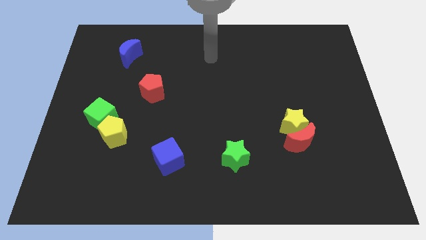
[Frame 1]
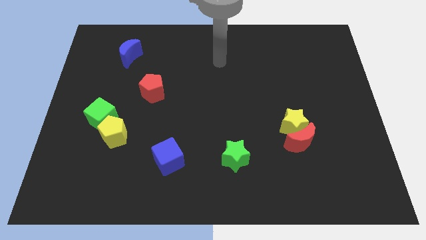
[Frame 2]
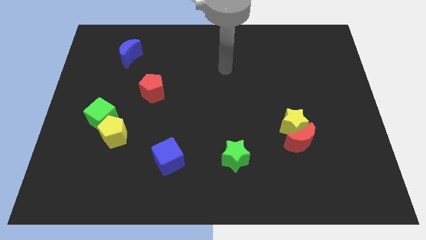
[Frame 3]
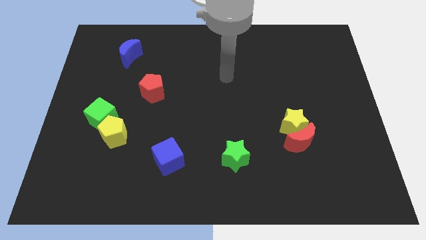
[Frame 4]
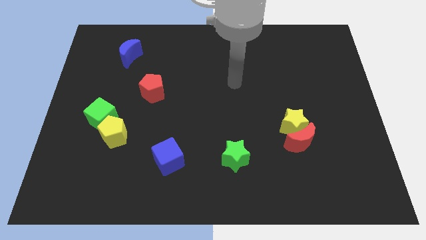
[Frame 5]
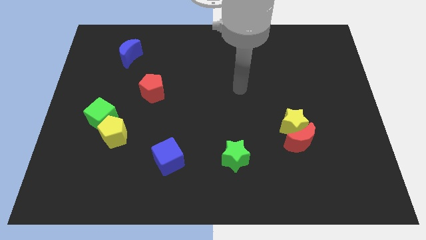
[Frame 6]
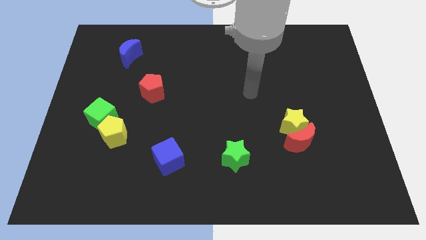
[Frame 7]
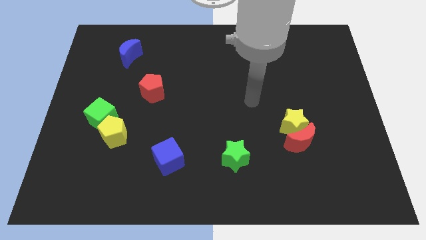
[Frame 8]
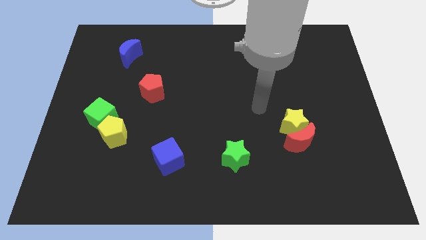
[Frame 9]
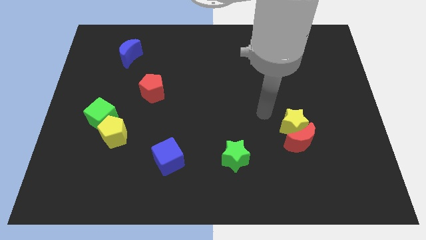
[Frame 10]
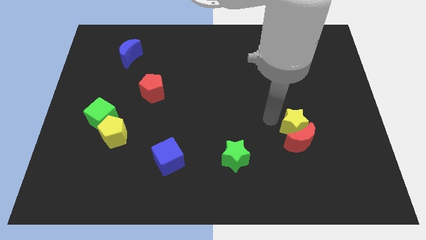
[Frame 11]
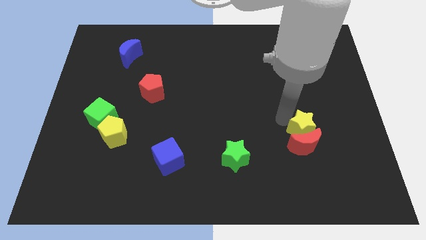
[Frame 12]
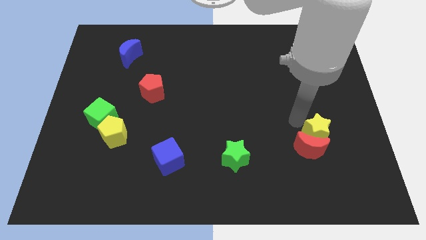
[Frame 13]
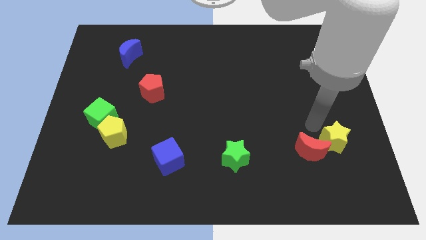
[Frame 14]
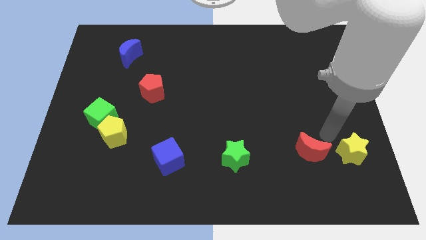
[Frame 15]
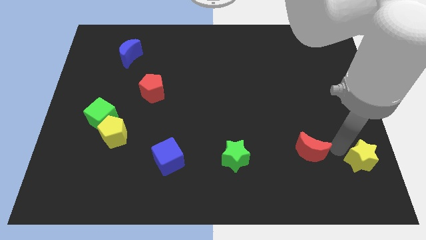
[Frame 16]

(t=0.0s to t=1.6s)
move the red moon away from the yellow star

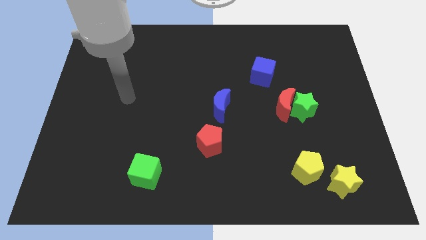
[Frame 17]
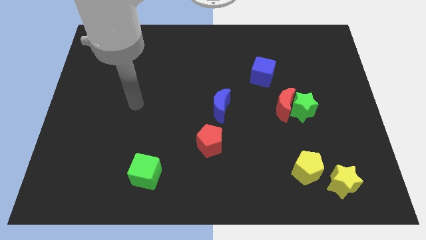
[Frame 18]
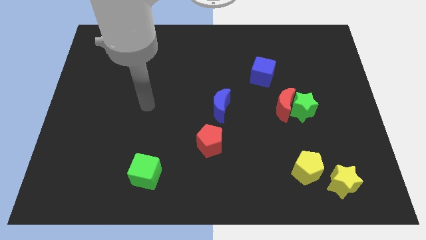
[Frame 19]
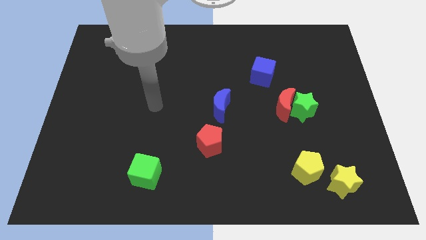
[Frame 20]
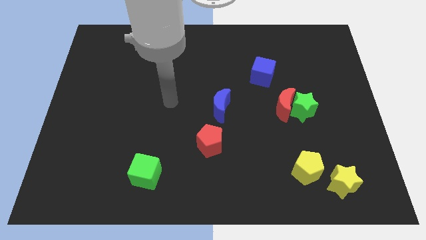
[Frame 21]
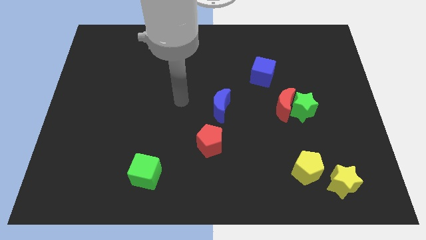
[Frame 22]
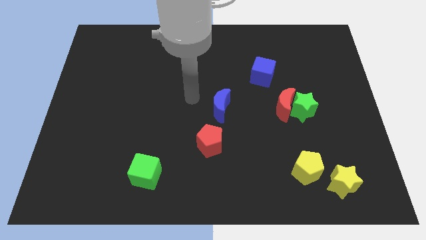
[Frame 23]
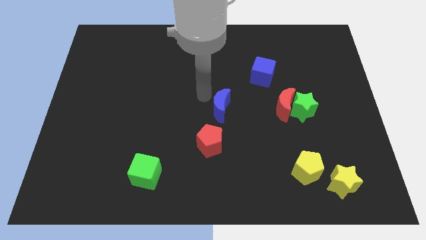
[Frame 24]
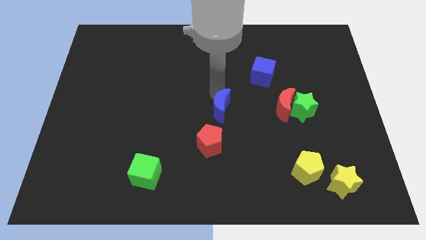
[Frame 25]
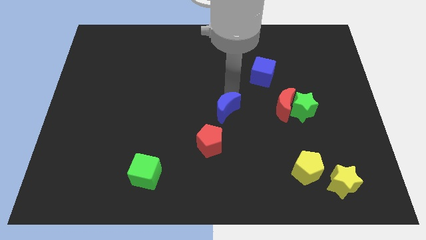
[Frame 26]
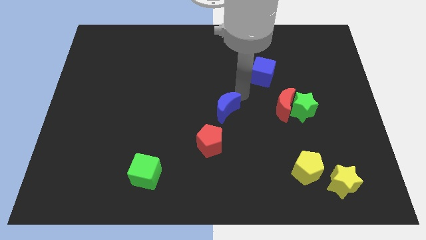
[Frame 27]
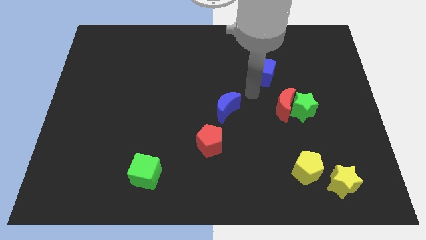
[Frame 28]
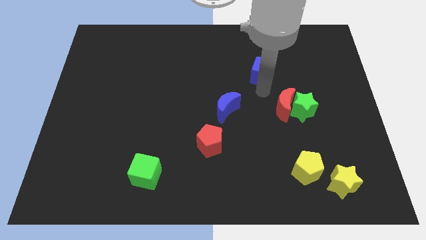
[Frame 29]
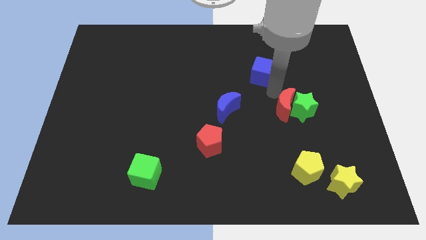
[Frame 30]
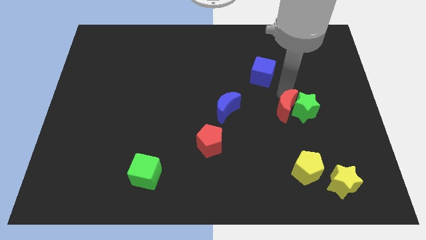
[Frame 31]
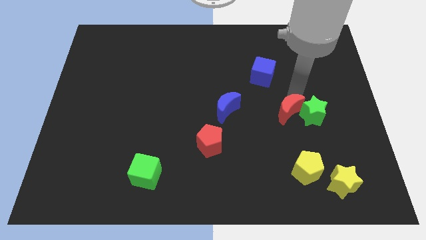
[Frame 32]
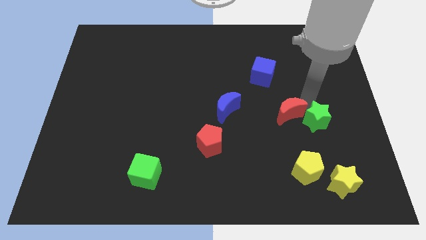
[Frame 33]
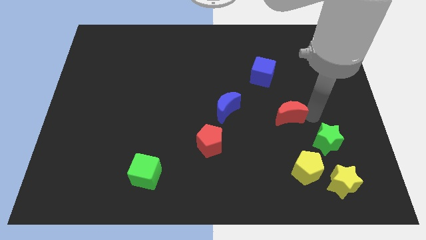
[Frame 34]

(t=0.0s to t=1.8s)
pull the red moon apart from the green star

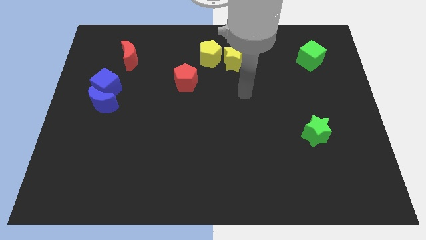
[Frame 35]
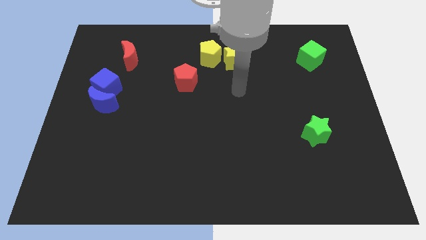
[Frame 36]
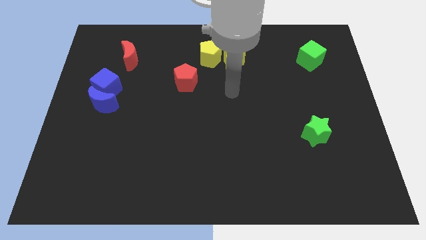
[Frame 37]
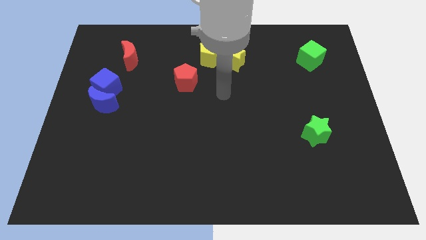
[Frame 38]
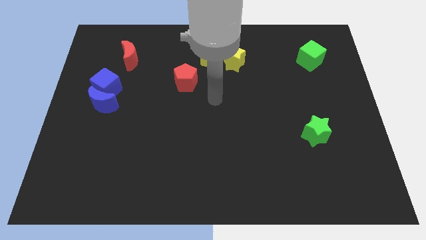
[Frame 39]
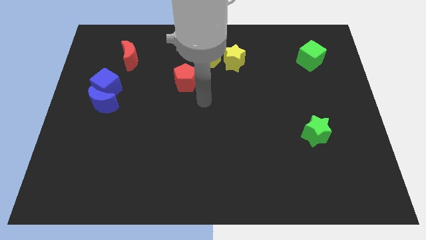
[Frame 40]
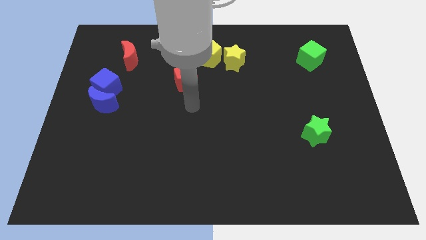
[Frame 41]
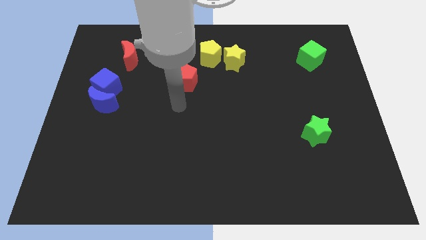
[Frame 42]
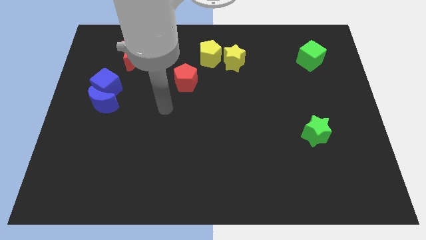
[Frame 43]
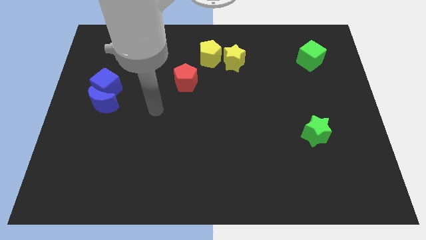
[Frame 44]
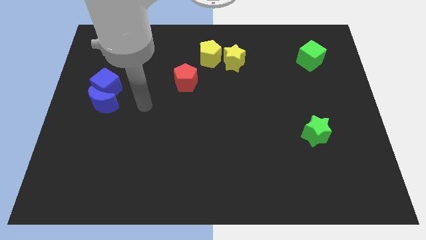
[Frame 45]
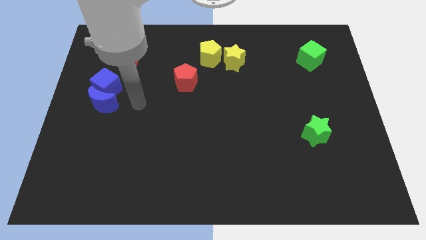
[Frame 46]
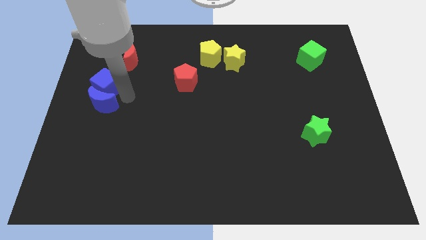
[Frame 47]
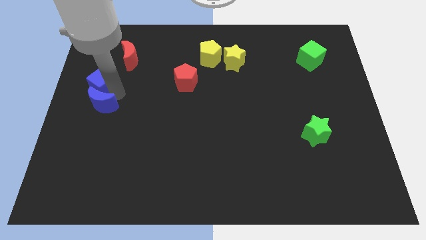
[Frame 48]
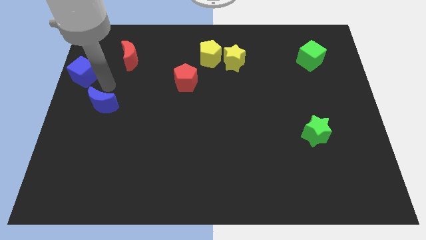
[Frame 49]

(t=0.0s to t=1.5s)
pull the blue moon apart from the blue cube

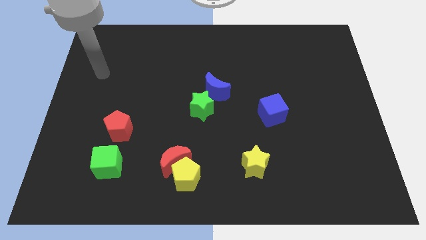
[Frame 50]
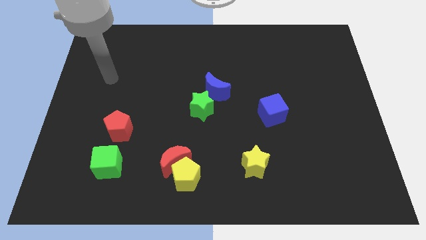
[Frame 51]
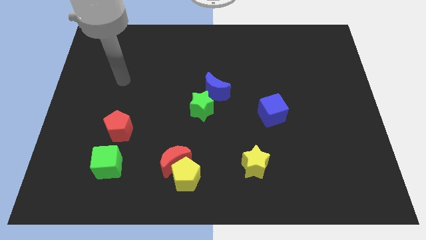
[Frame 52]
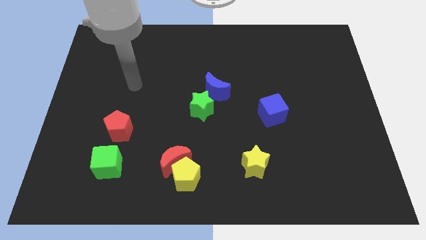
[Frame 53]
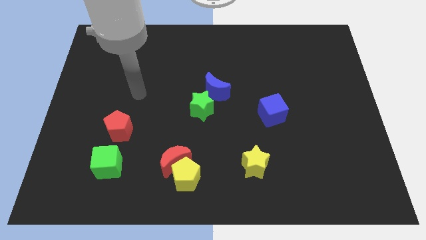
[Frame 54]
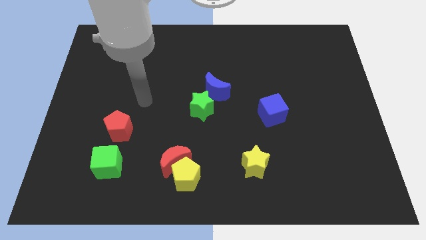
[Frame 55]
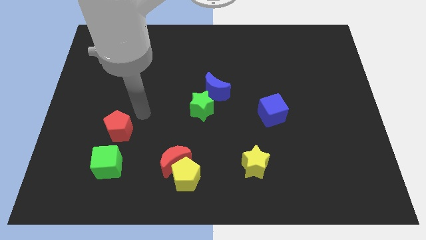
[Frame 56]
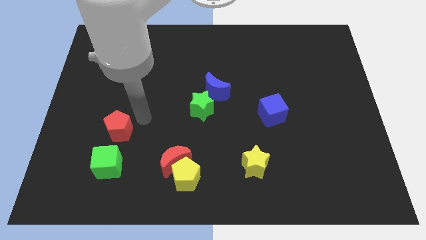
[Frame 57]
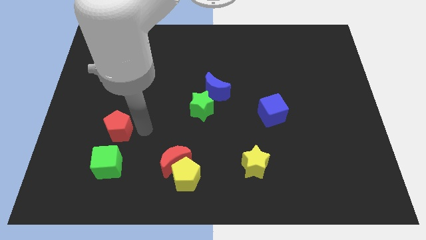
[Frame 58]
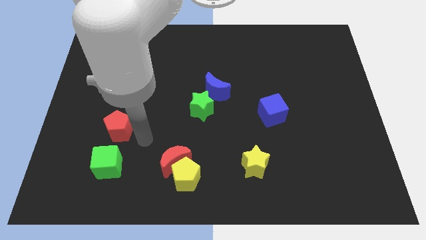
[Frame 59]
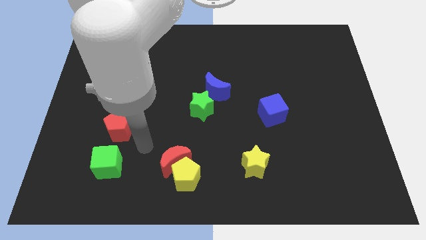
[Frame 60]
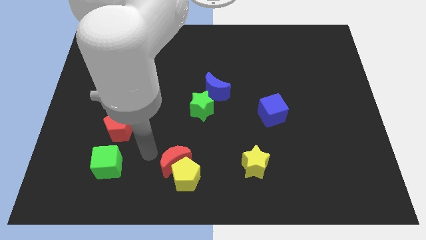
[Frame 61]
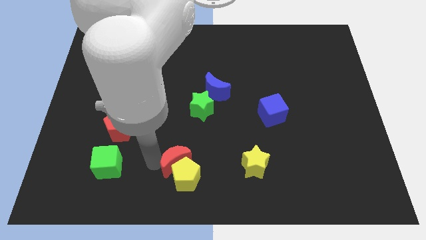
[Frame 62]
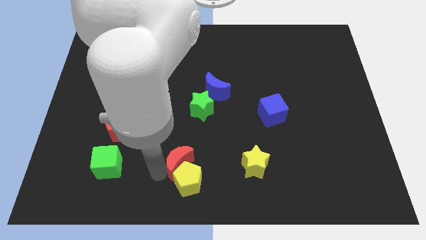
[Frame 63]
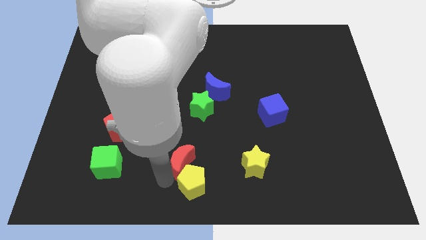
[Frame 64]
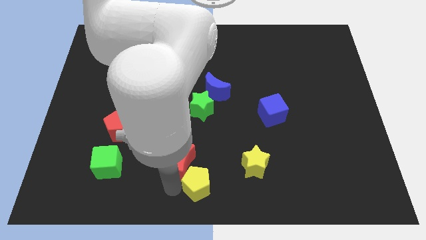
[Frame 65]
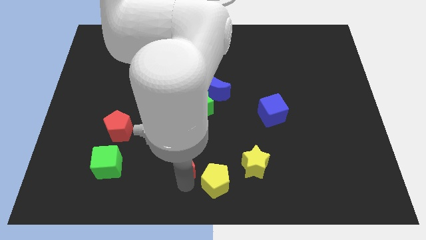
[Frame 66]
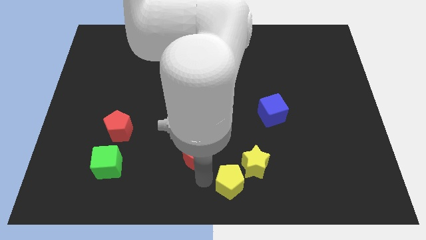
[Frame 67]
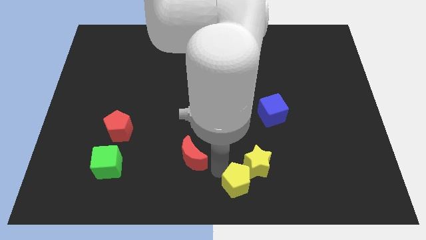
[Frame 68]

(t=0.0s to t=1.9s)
pull the red moon apart from the yellow pentagon

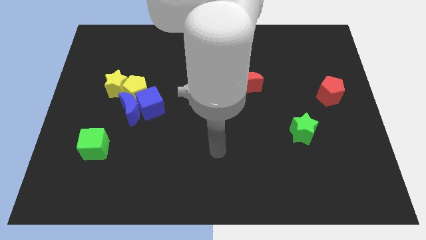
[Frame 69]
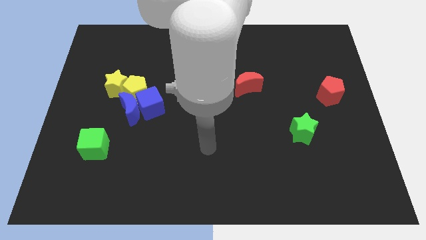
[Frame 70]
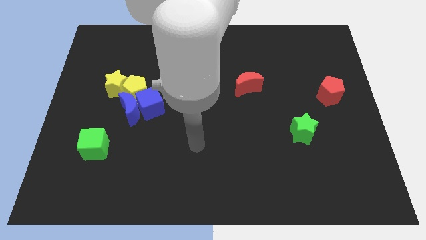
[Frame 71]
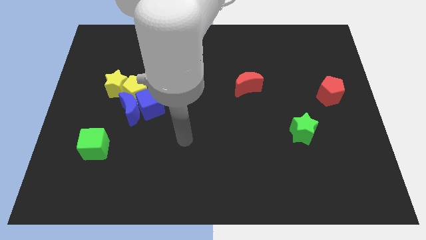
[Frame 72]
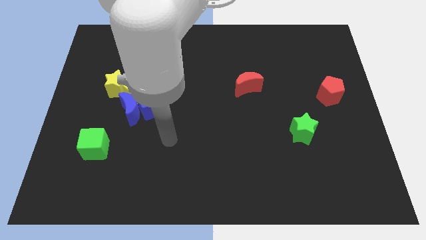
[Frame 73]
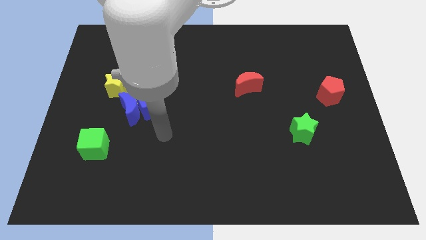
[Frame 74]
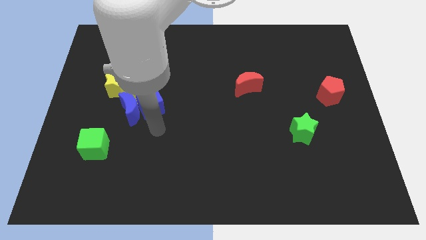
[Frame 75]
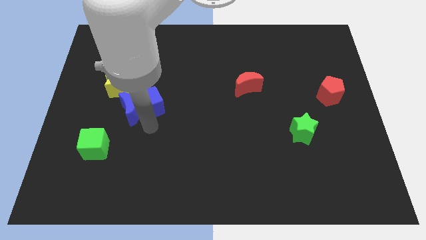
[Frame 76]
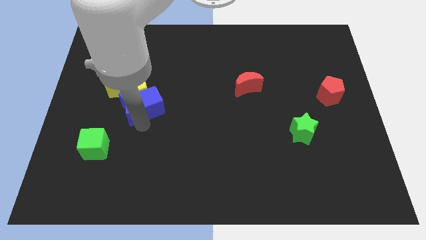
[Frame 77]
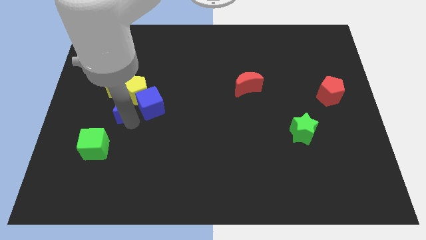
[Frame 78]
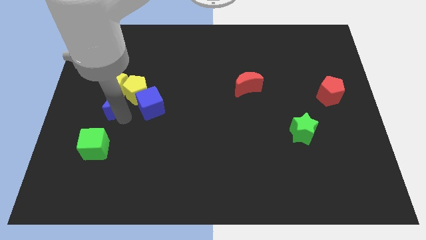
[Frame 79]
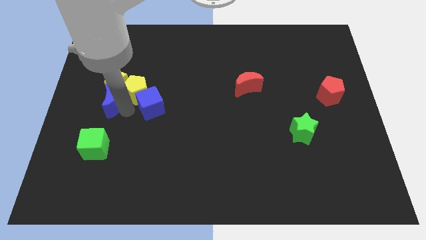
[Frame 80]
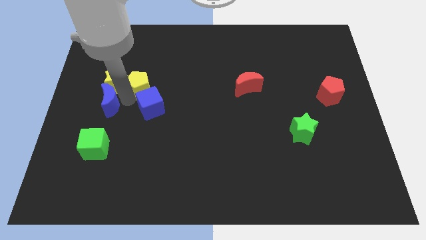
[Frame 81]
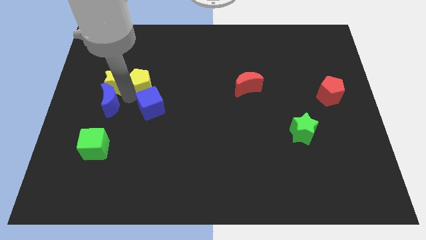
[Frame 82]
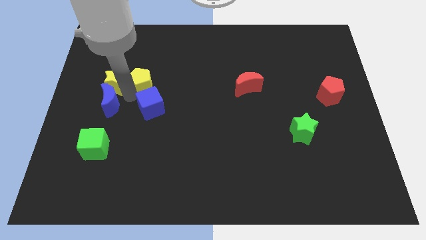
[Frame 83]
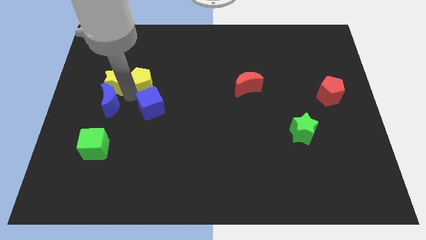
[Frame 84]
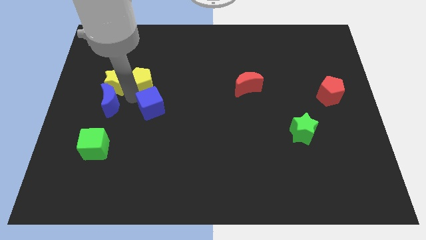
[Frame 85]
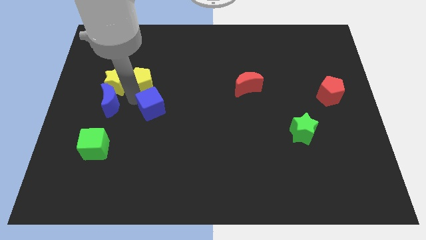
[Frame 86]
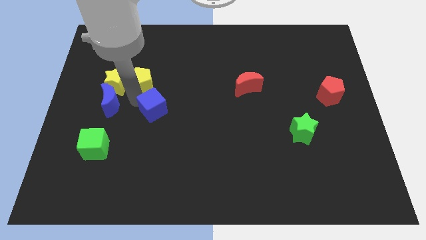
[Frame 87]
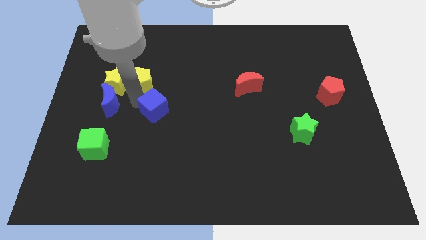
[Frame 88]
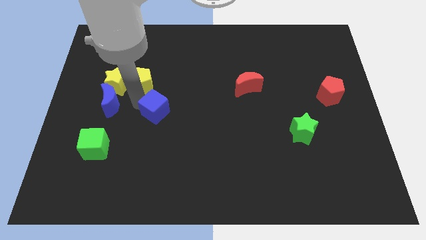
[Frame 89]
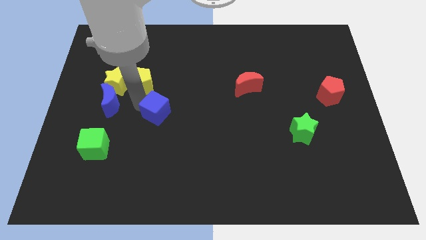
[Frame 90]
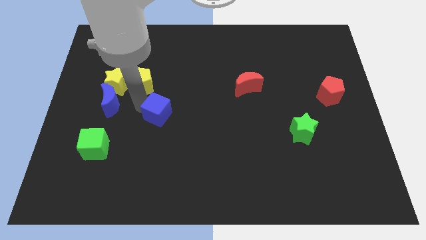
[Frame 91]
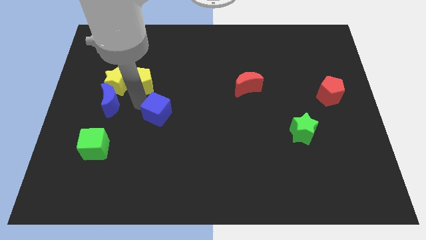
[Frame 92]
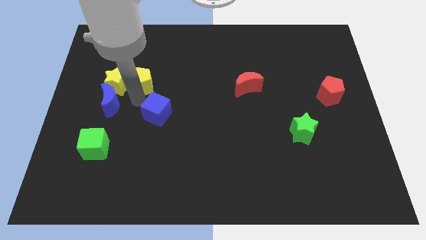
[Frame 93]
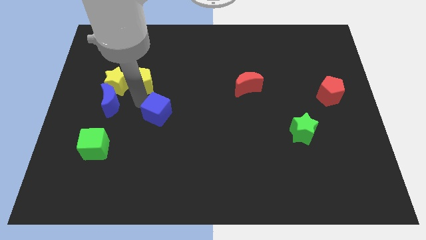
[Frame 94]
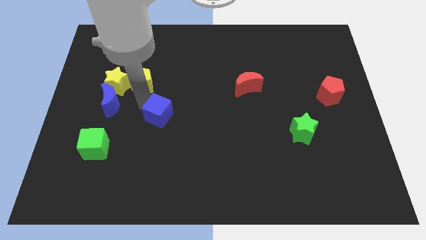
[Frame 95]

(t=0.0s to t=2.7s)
pull the blue cube apart from the blue moon and yellow pentagon

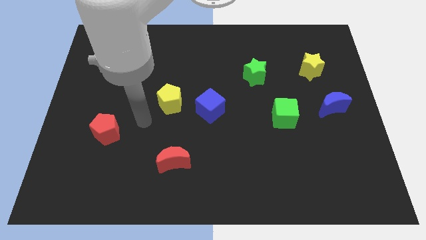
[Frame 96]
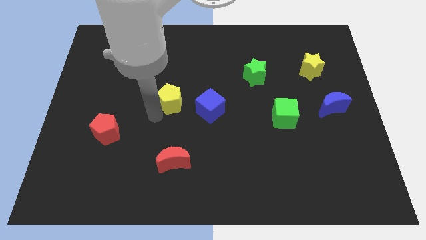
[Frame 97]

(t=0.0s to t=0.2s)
separate the blue cube from the yellow pentagon
